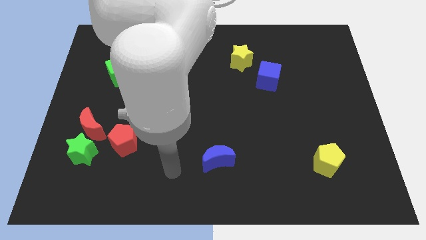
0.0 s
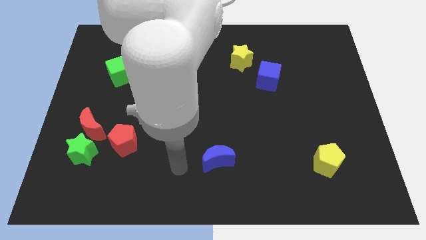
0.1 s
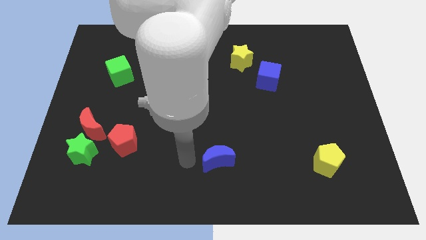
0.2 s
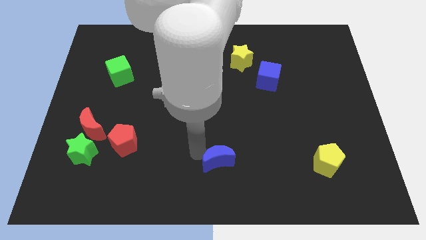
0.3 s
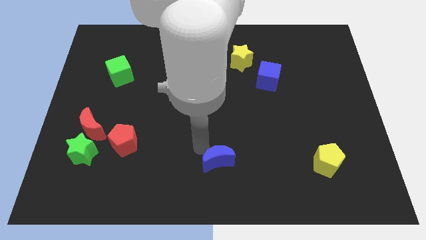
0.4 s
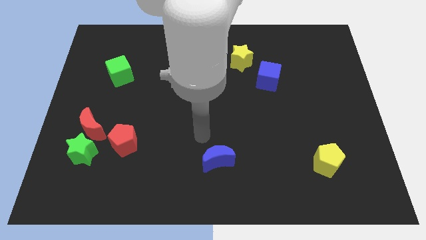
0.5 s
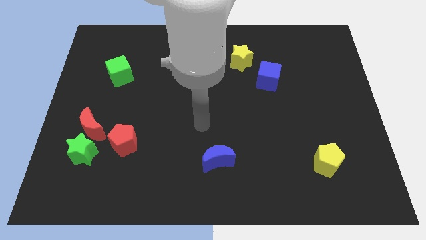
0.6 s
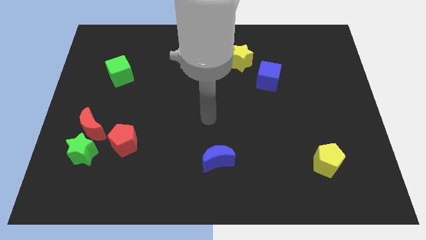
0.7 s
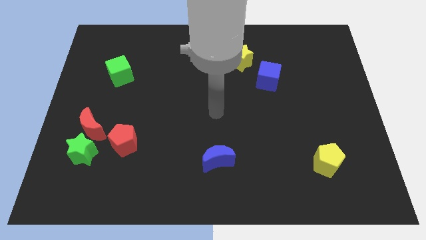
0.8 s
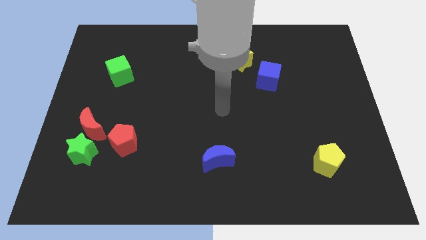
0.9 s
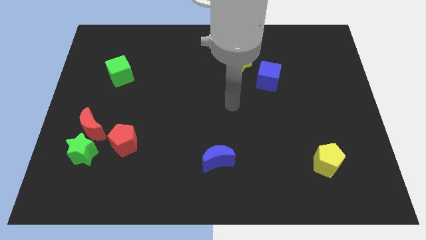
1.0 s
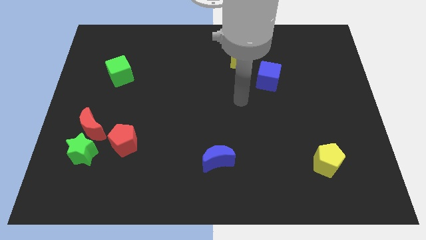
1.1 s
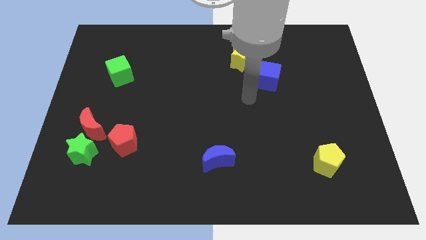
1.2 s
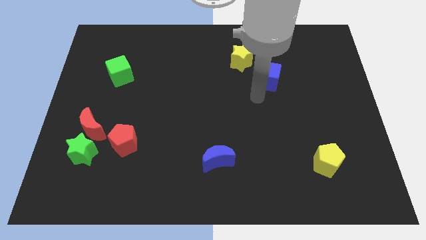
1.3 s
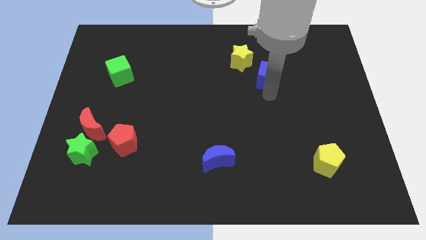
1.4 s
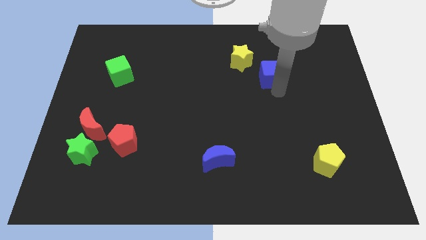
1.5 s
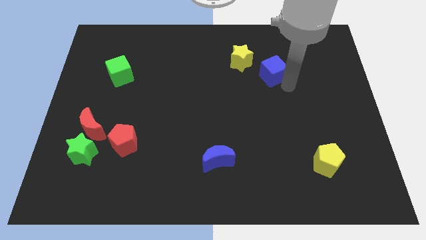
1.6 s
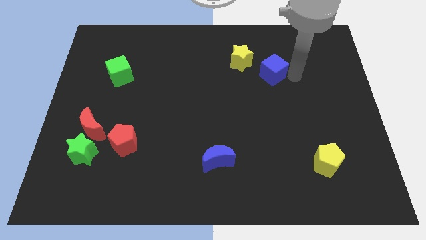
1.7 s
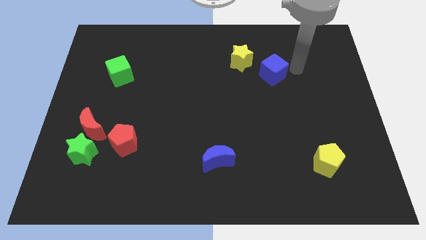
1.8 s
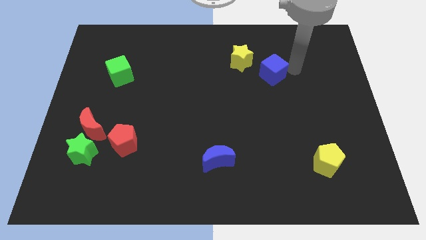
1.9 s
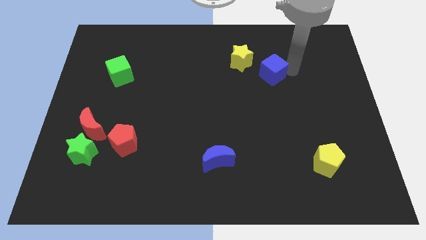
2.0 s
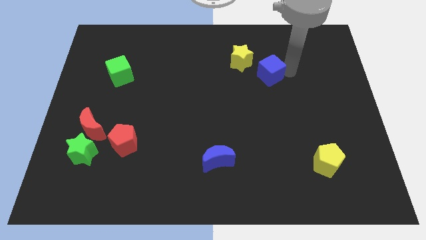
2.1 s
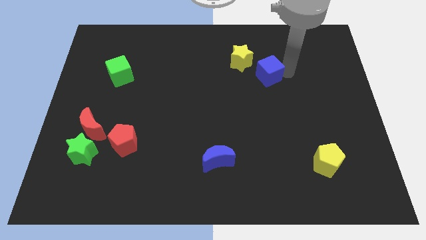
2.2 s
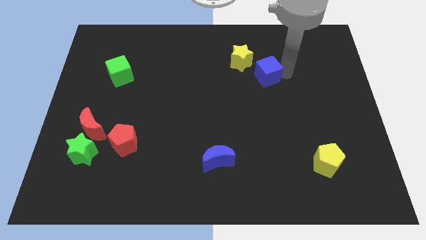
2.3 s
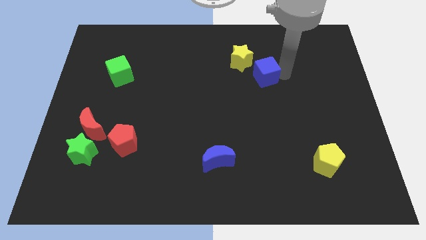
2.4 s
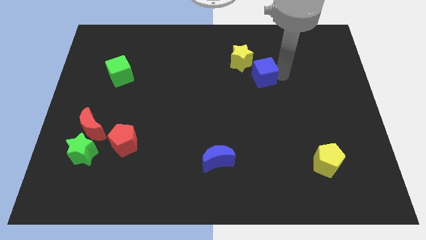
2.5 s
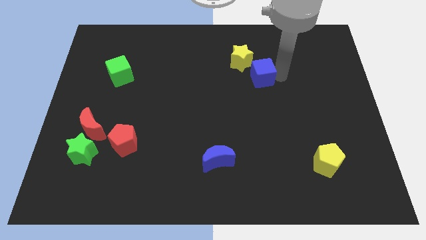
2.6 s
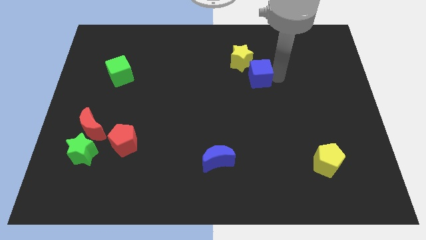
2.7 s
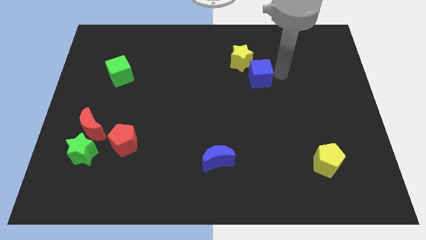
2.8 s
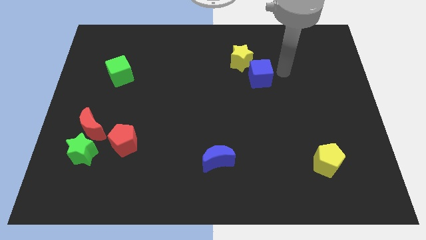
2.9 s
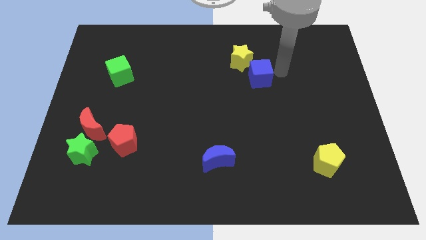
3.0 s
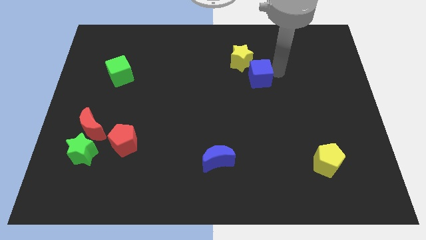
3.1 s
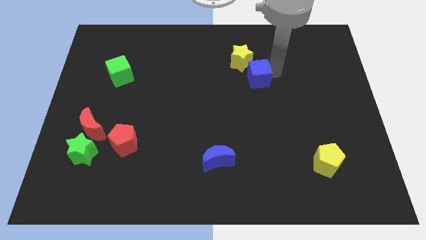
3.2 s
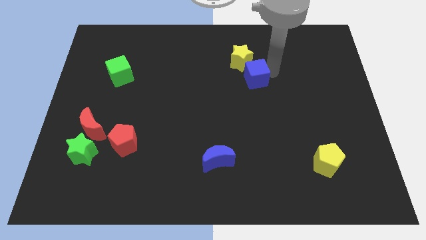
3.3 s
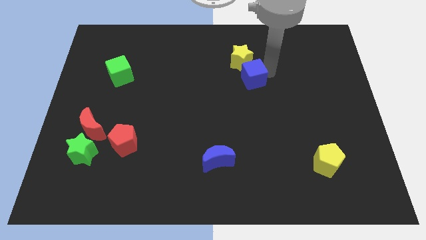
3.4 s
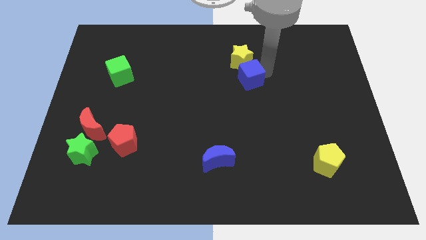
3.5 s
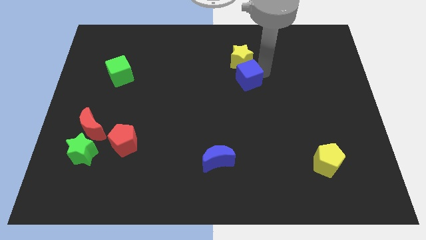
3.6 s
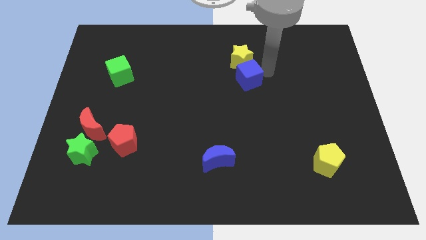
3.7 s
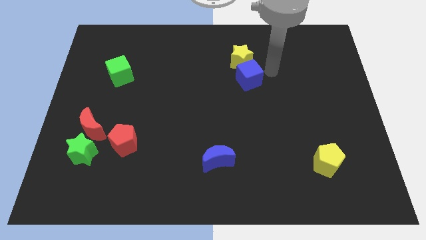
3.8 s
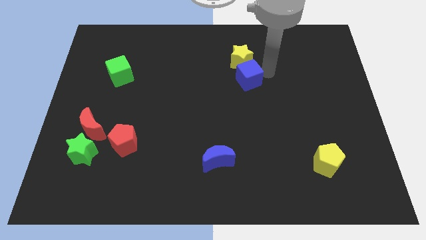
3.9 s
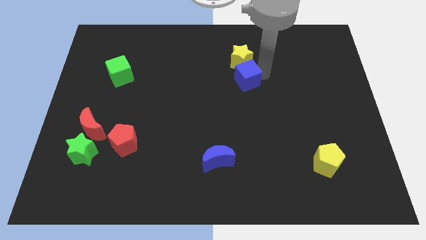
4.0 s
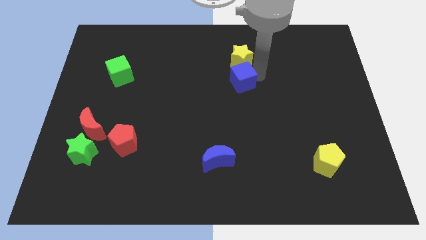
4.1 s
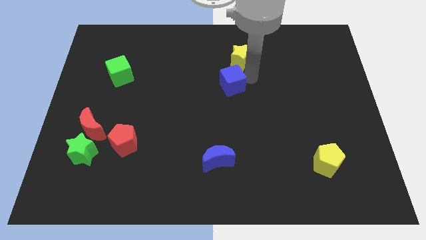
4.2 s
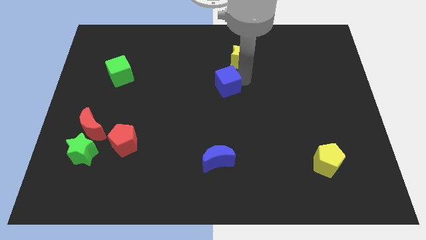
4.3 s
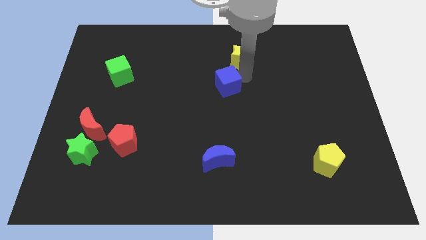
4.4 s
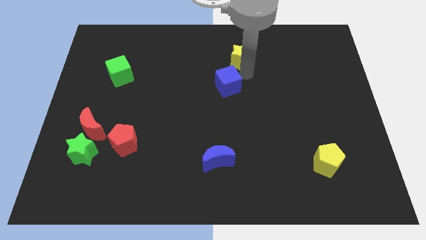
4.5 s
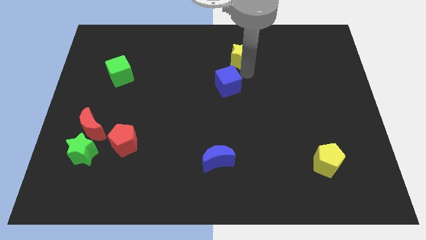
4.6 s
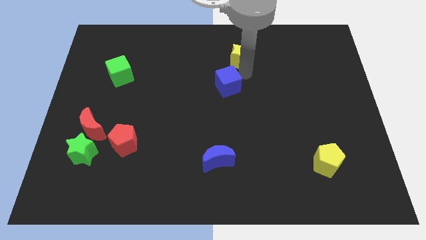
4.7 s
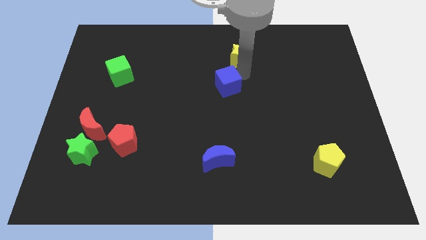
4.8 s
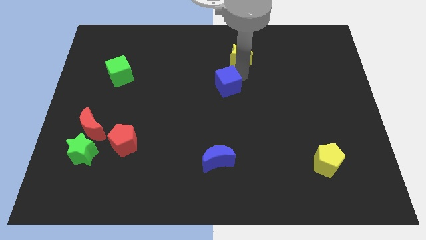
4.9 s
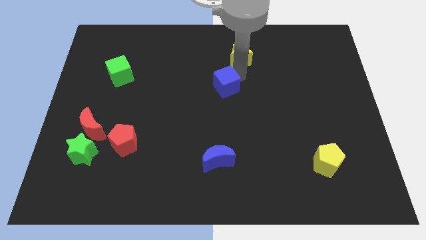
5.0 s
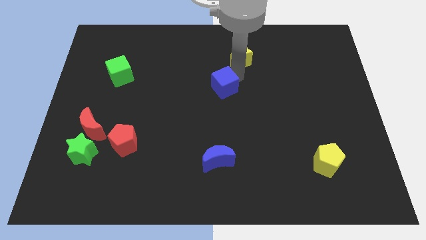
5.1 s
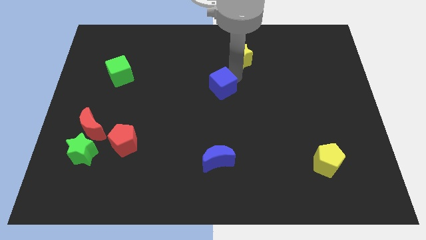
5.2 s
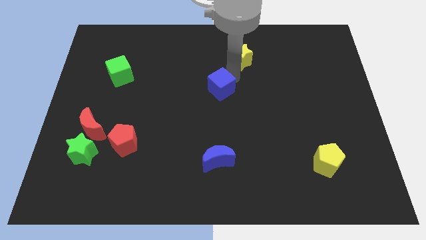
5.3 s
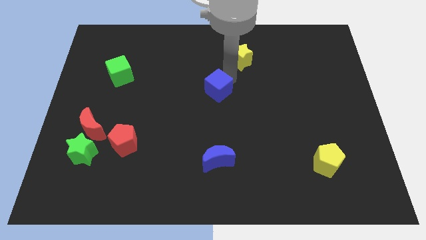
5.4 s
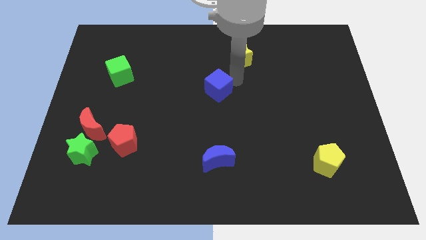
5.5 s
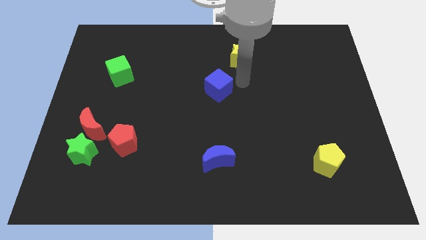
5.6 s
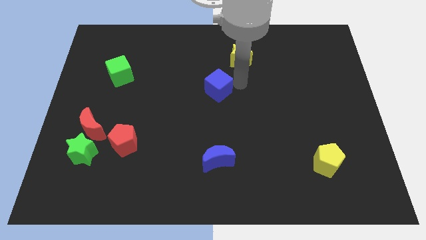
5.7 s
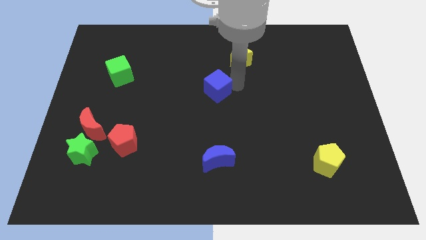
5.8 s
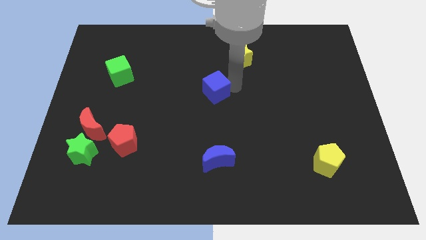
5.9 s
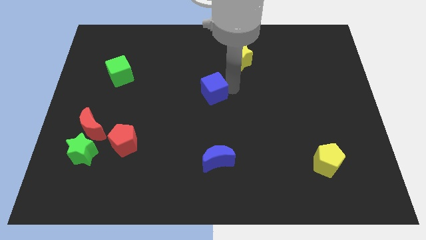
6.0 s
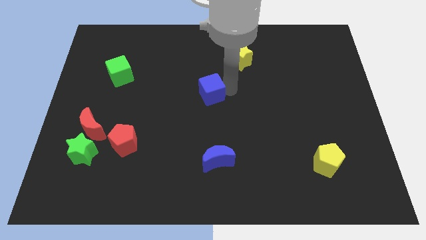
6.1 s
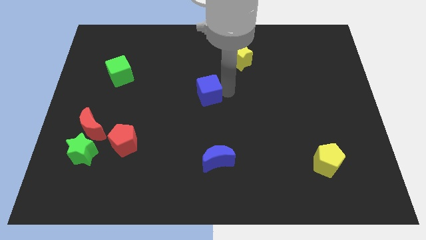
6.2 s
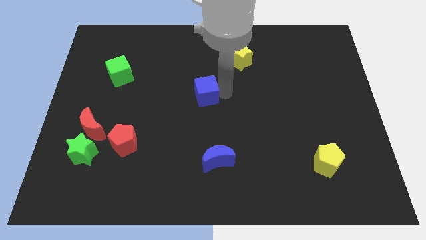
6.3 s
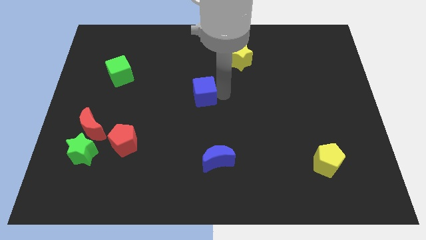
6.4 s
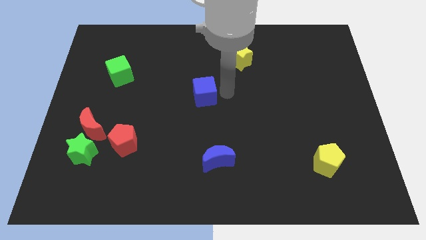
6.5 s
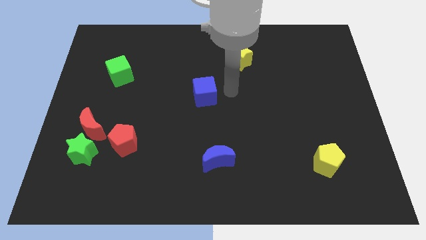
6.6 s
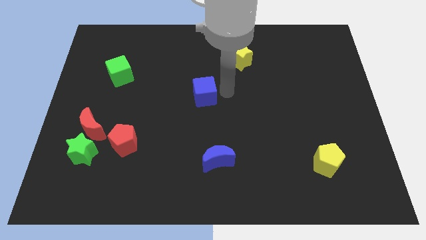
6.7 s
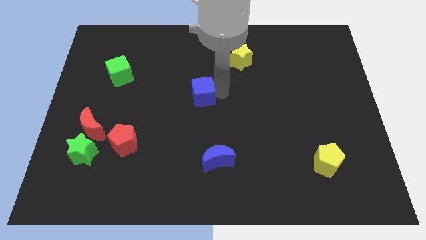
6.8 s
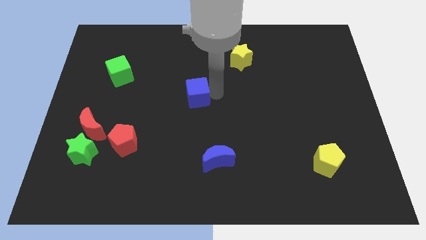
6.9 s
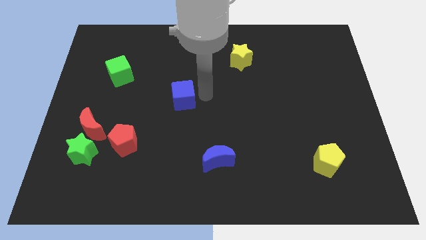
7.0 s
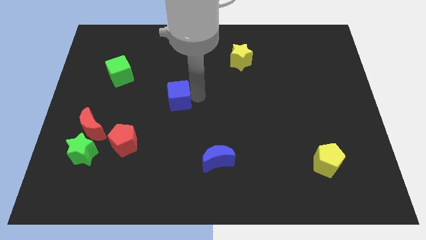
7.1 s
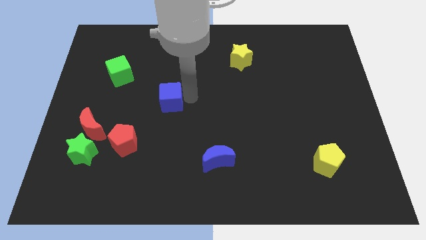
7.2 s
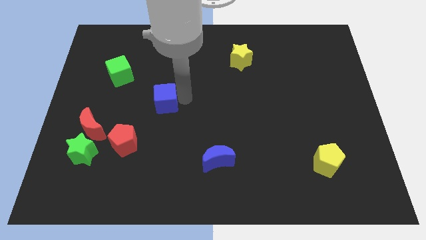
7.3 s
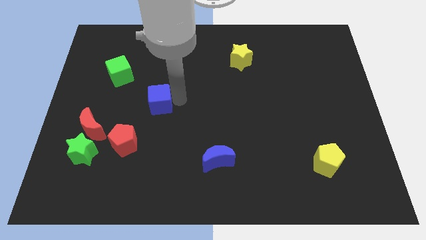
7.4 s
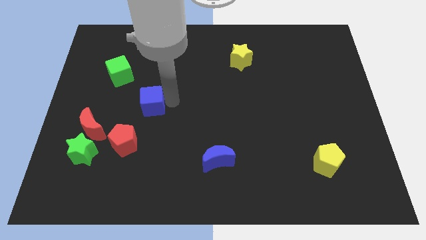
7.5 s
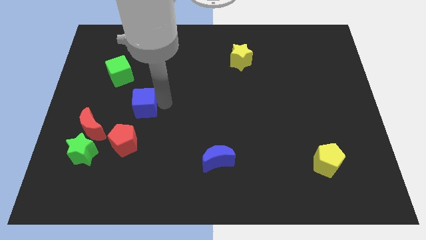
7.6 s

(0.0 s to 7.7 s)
slide the blue cube to the top side of the red pentagon

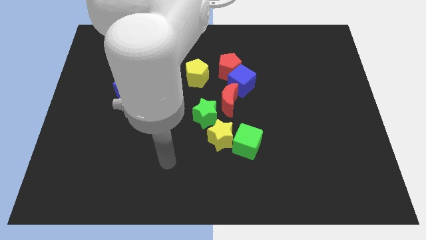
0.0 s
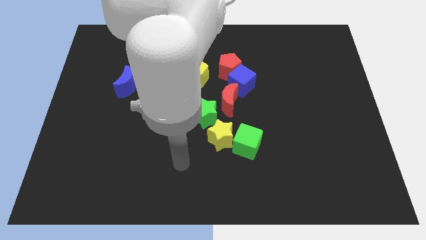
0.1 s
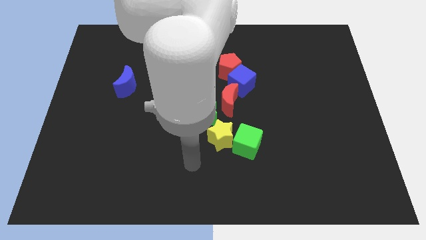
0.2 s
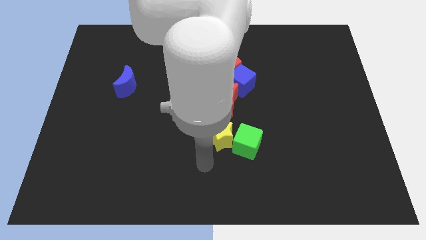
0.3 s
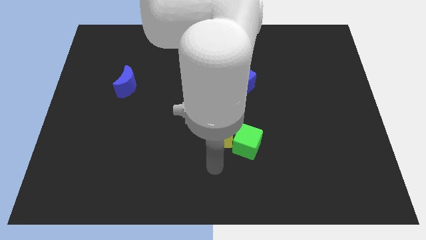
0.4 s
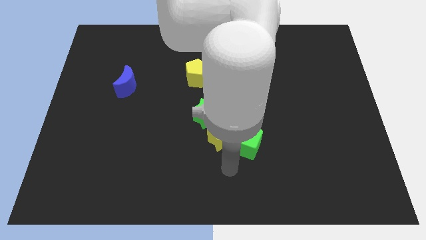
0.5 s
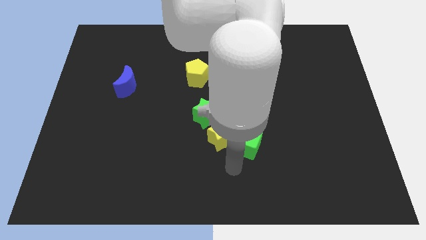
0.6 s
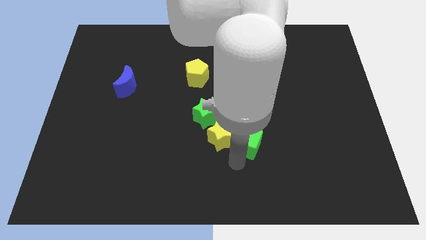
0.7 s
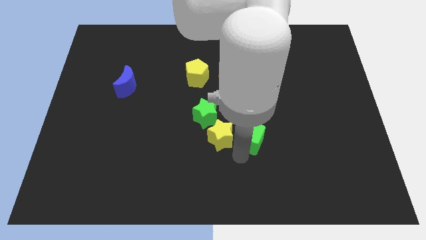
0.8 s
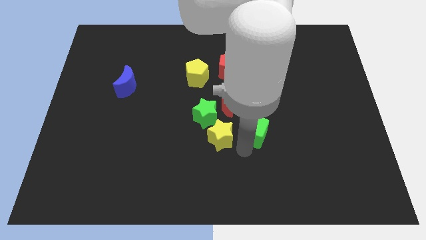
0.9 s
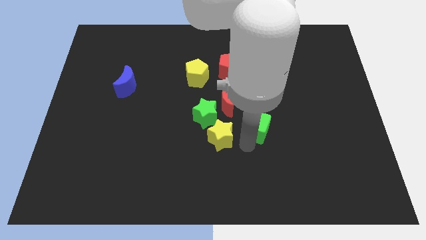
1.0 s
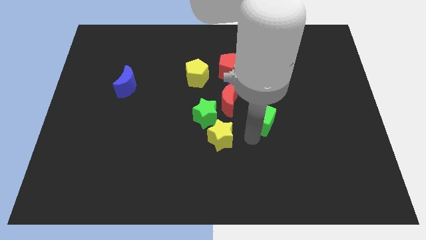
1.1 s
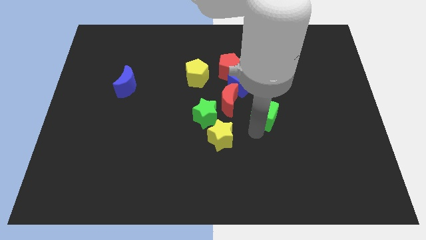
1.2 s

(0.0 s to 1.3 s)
push the green cube to the bottom right side of the blue cube
